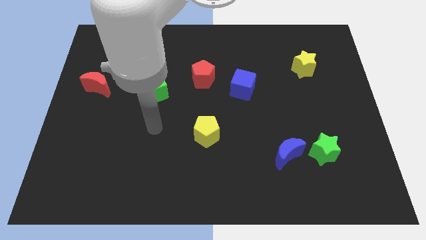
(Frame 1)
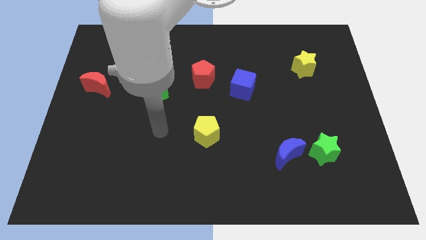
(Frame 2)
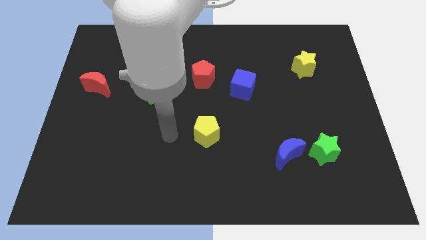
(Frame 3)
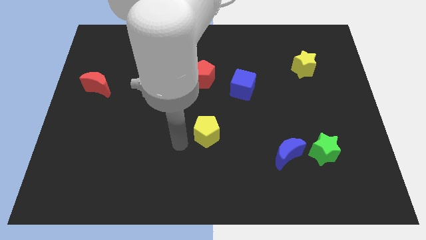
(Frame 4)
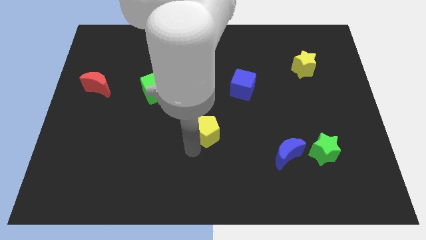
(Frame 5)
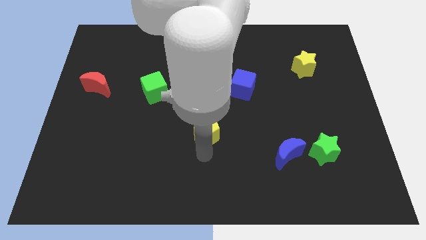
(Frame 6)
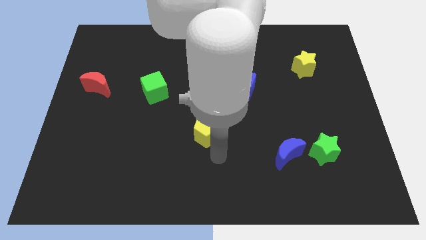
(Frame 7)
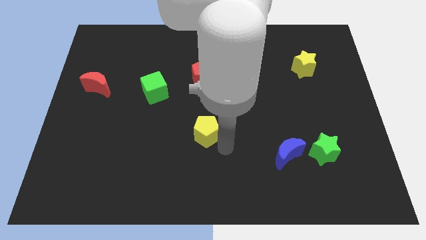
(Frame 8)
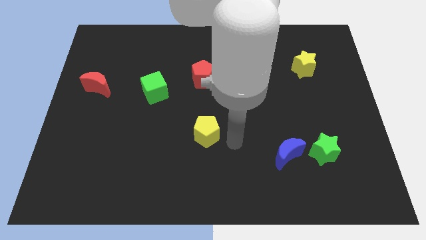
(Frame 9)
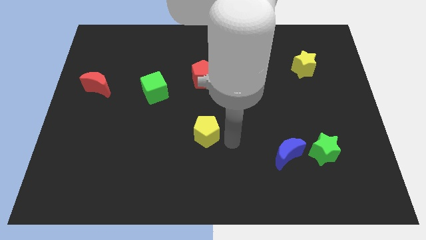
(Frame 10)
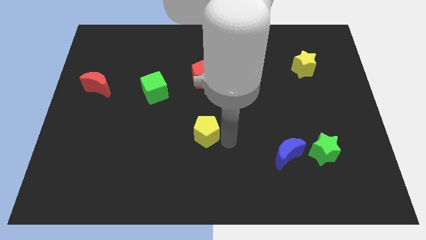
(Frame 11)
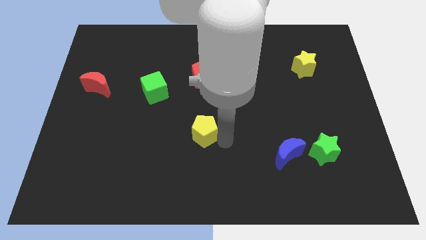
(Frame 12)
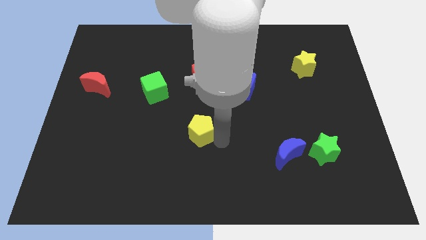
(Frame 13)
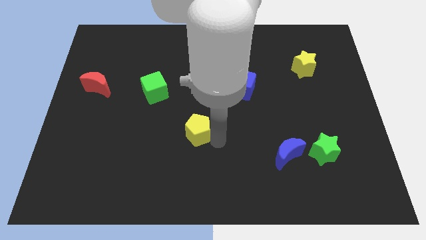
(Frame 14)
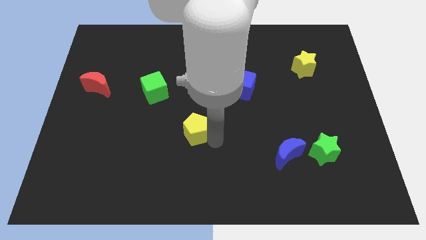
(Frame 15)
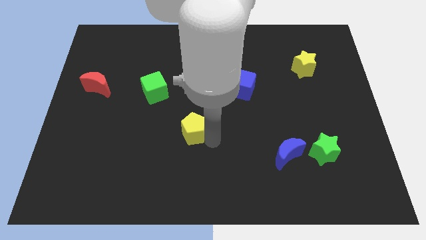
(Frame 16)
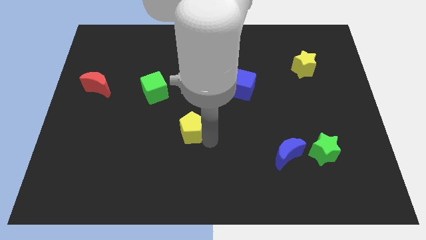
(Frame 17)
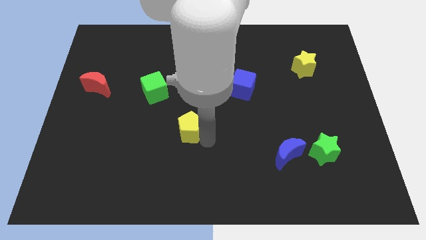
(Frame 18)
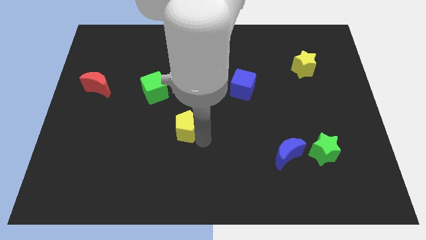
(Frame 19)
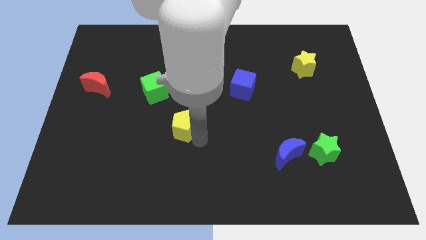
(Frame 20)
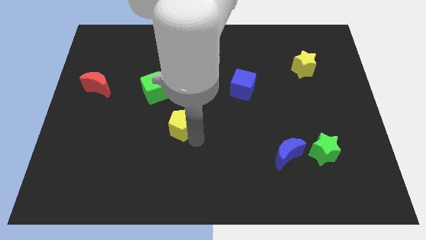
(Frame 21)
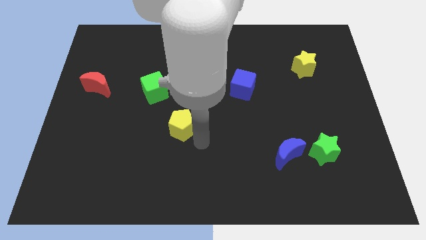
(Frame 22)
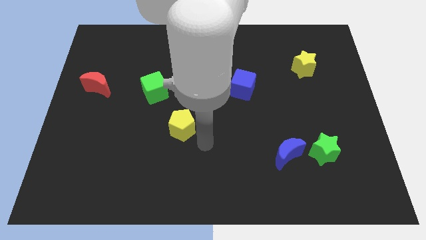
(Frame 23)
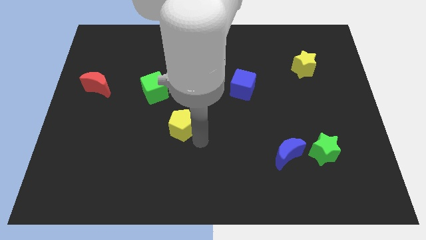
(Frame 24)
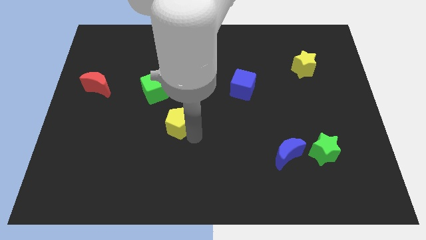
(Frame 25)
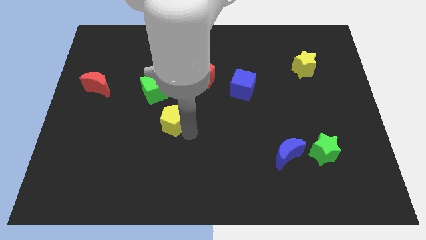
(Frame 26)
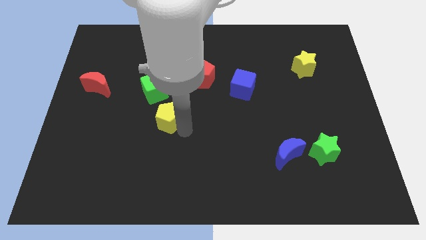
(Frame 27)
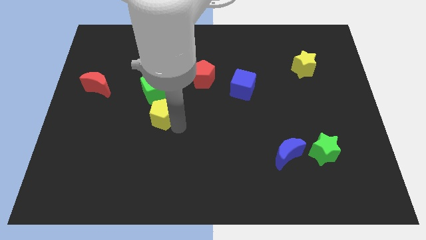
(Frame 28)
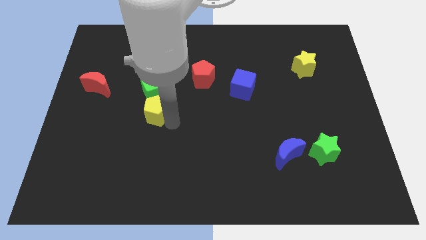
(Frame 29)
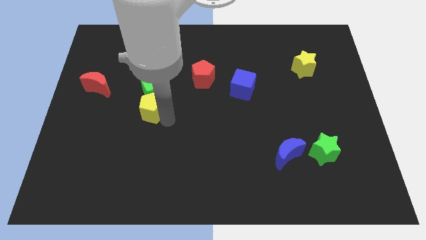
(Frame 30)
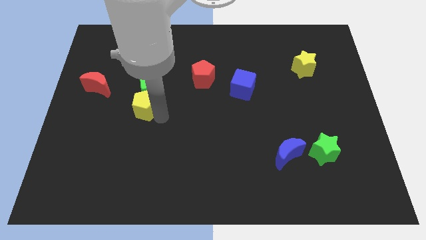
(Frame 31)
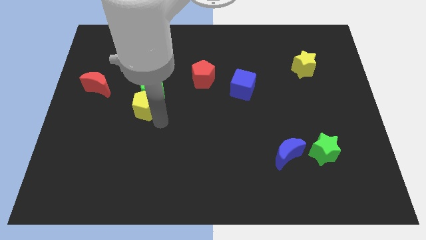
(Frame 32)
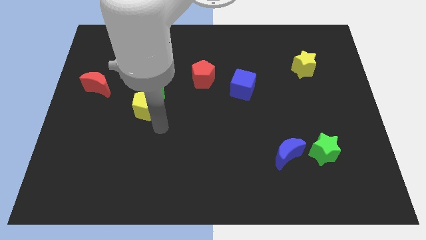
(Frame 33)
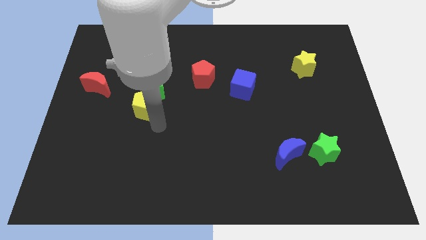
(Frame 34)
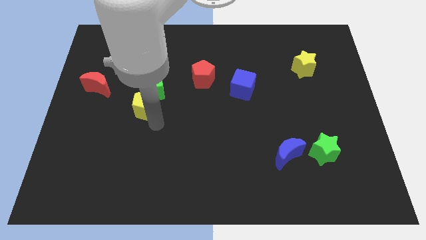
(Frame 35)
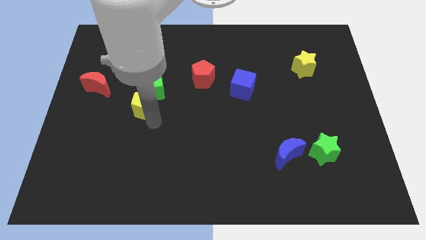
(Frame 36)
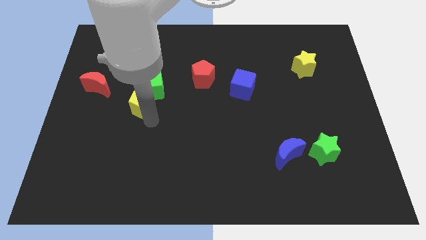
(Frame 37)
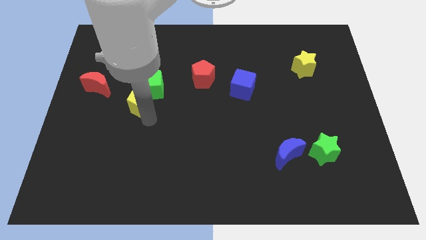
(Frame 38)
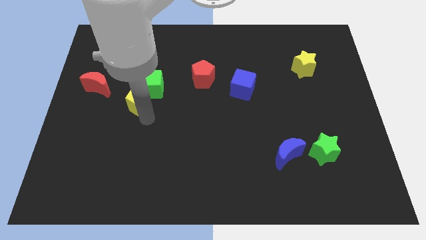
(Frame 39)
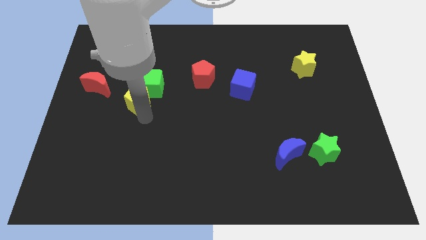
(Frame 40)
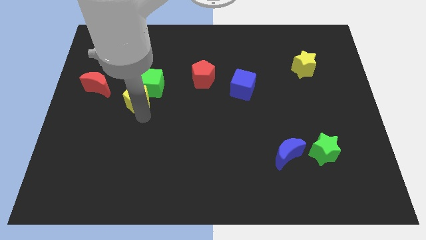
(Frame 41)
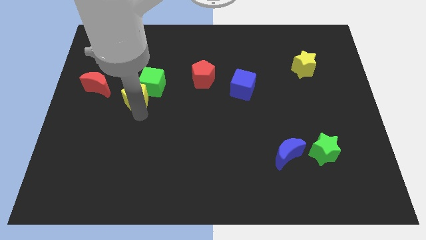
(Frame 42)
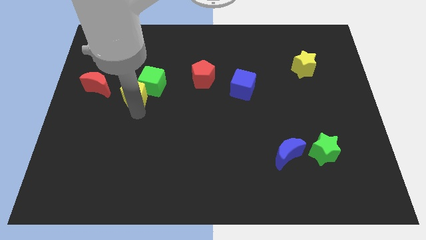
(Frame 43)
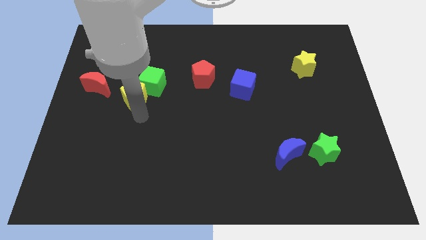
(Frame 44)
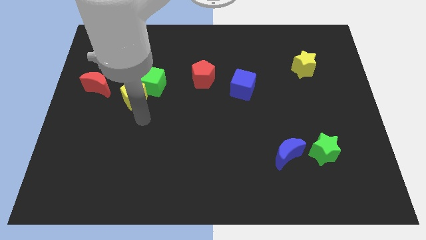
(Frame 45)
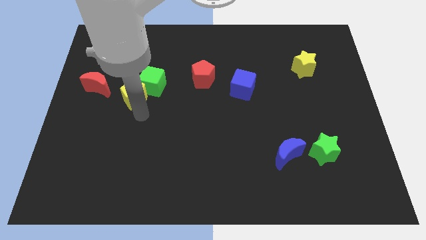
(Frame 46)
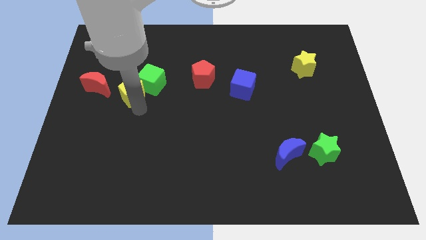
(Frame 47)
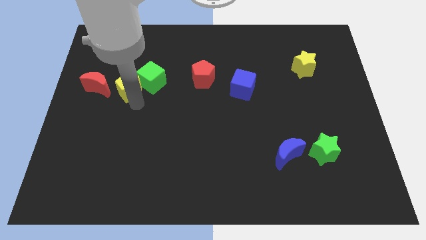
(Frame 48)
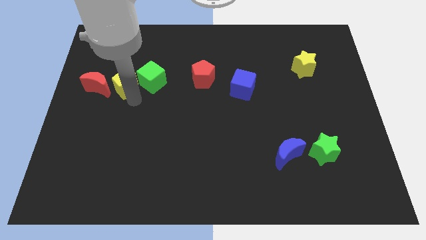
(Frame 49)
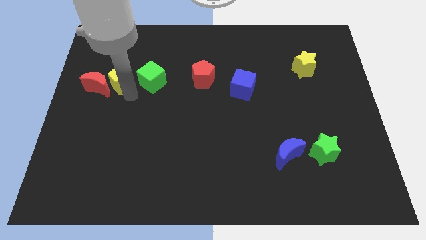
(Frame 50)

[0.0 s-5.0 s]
push the yellow pentagon diagonally up and to the right of the red moon

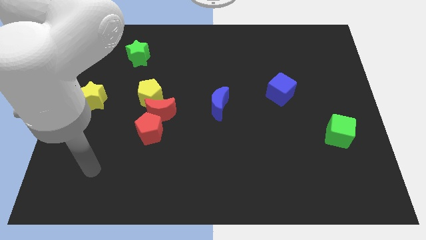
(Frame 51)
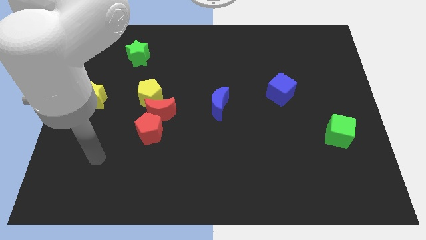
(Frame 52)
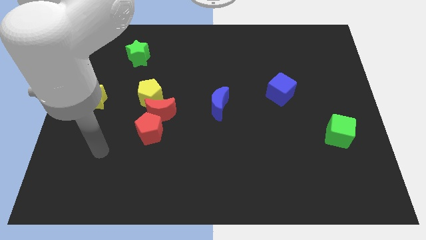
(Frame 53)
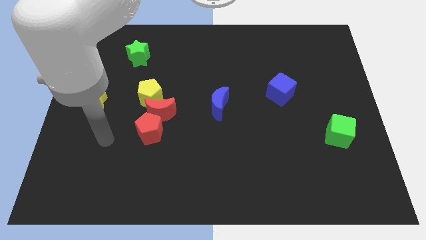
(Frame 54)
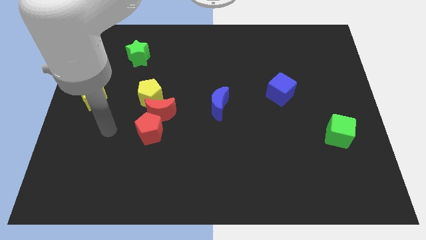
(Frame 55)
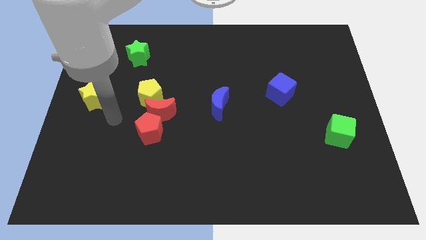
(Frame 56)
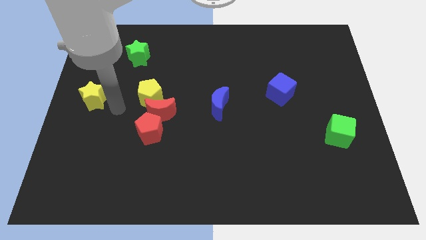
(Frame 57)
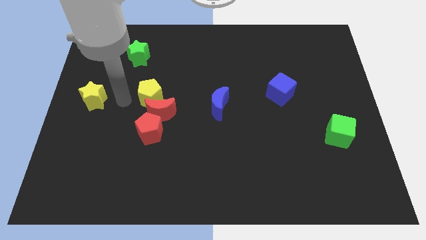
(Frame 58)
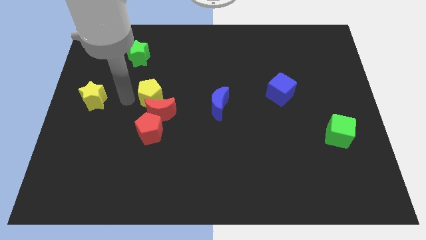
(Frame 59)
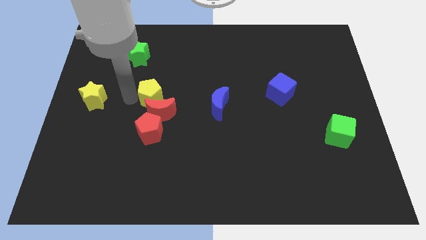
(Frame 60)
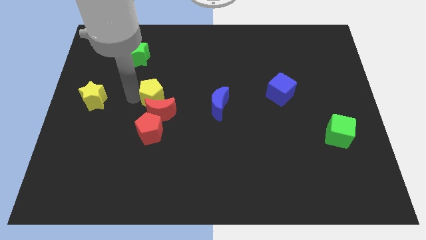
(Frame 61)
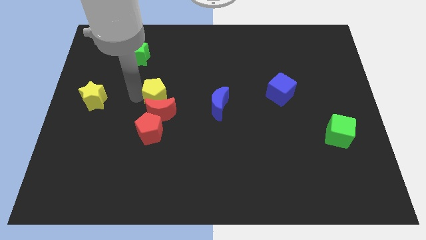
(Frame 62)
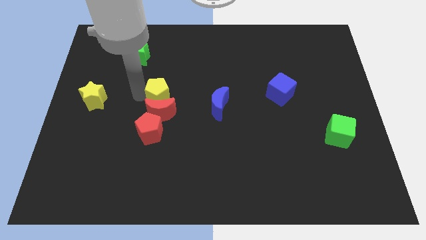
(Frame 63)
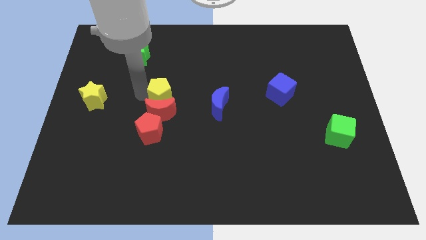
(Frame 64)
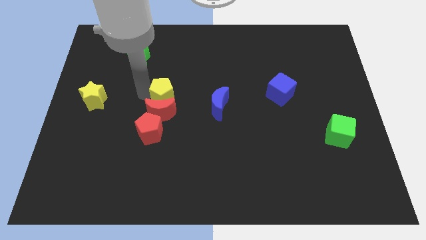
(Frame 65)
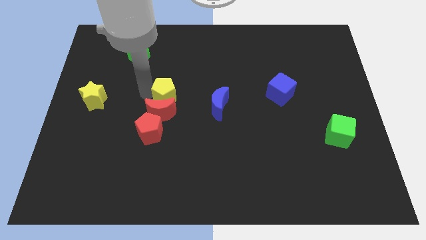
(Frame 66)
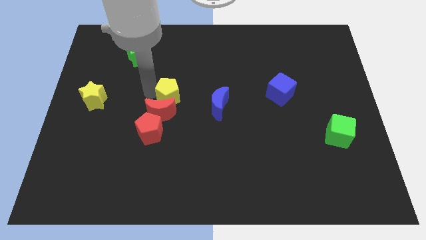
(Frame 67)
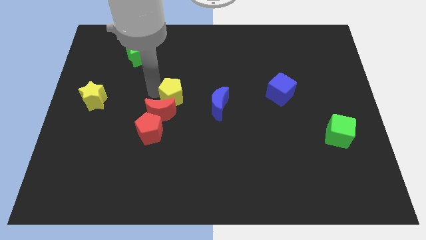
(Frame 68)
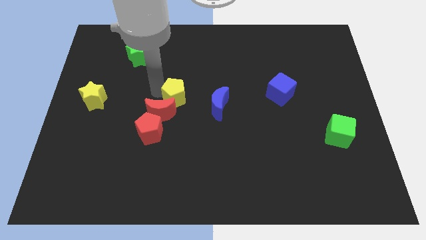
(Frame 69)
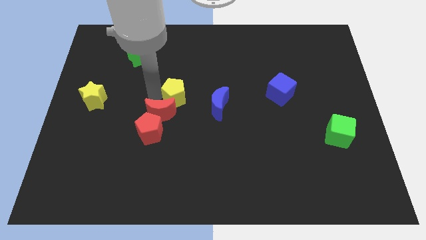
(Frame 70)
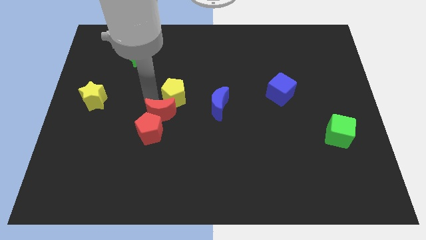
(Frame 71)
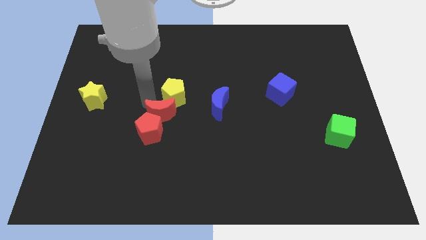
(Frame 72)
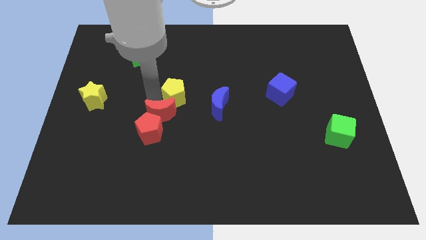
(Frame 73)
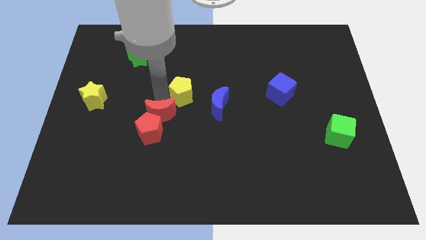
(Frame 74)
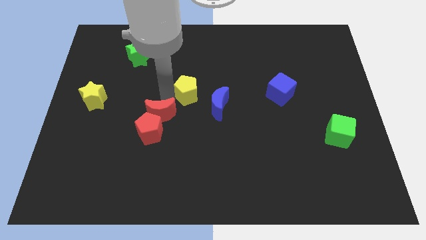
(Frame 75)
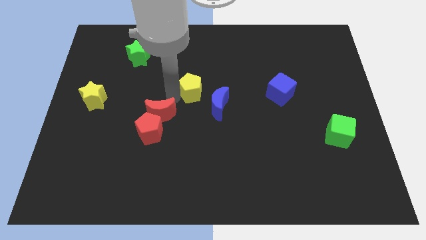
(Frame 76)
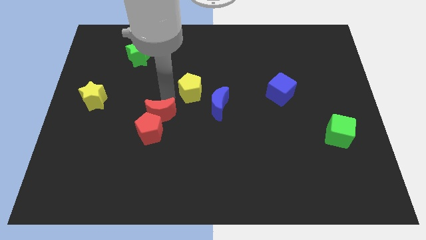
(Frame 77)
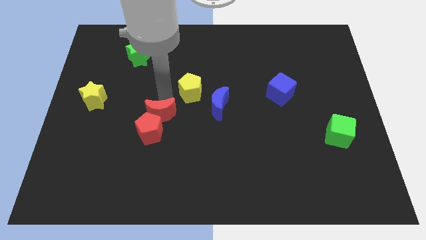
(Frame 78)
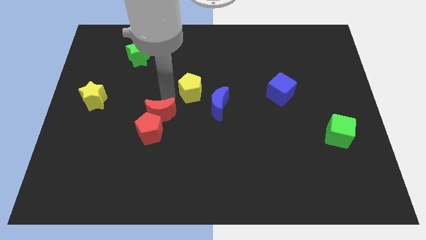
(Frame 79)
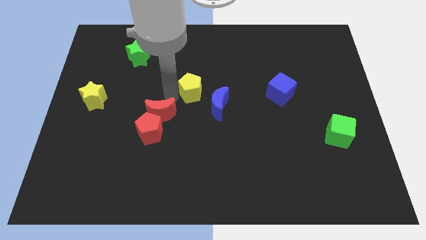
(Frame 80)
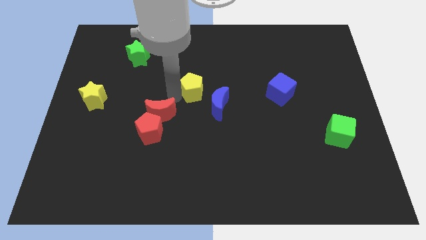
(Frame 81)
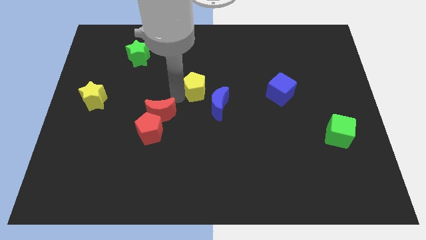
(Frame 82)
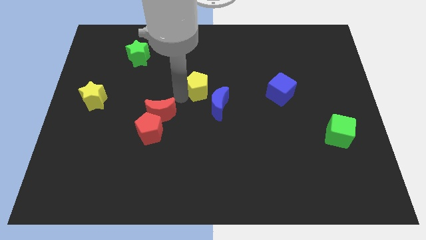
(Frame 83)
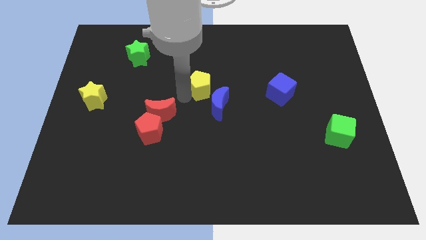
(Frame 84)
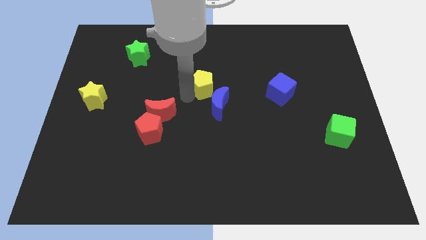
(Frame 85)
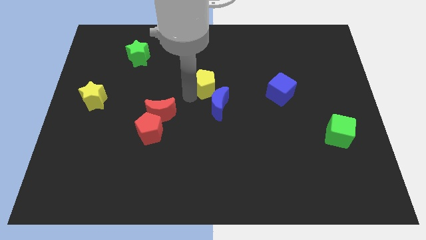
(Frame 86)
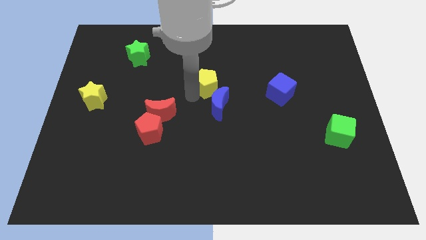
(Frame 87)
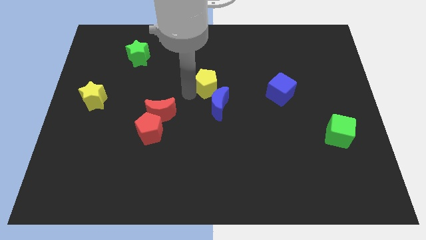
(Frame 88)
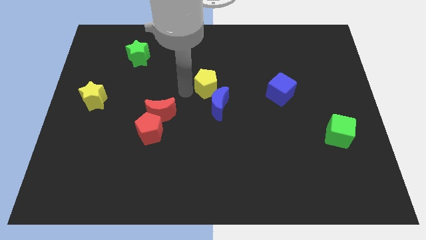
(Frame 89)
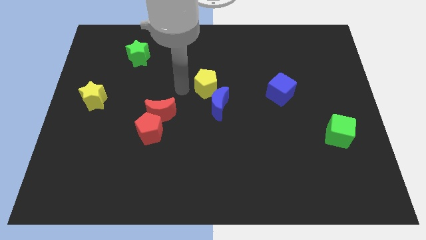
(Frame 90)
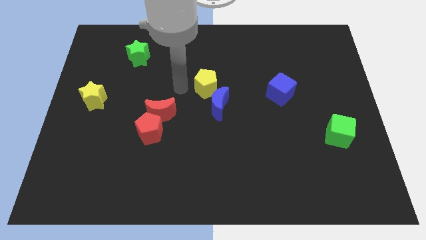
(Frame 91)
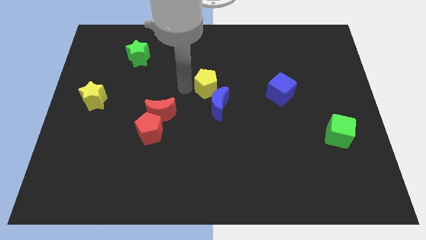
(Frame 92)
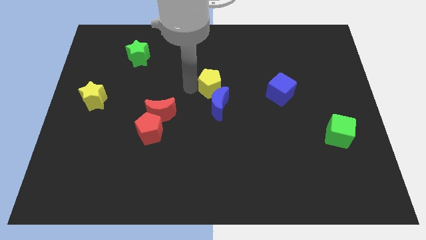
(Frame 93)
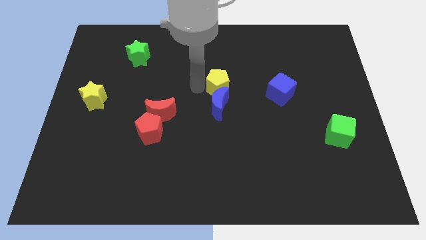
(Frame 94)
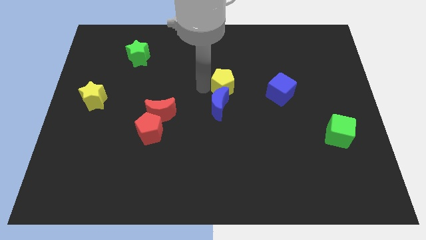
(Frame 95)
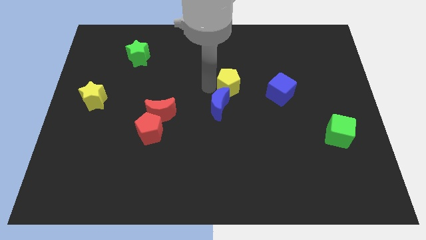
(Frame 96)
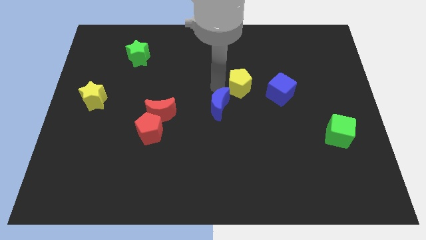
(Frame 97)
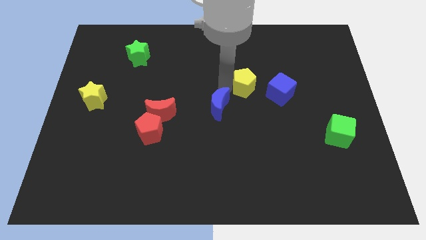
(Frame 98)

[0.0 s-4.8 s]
put the yellow pentagon to the top left of the blue cube
